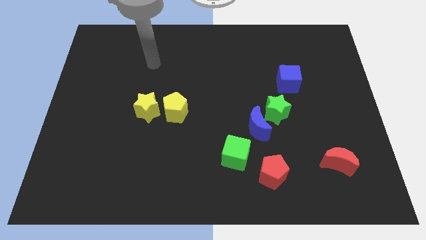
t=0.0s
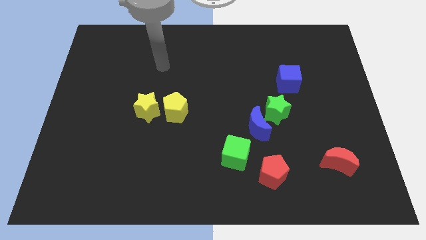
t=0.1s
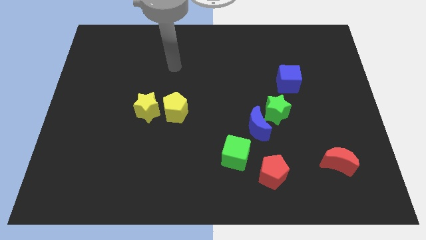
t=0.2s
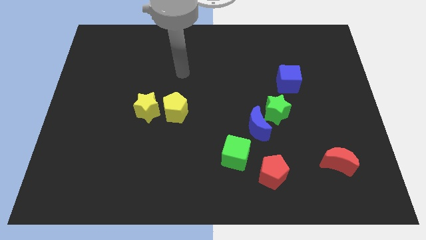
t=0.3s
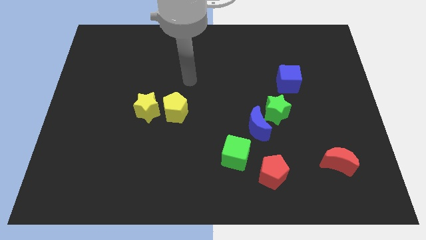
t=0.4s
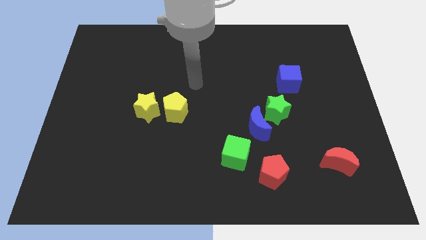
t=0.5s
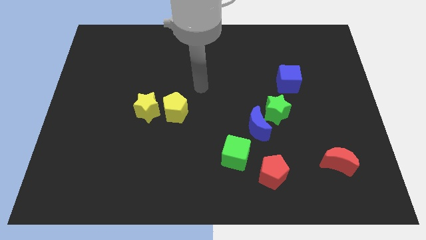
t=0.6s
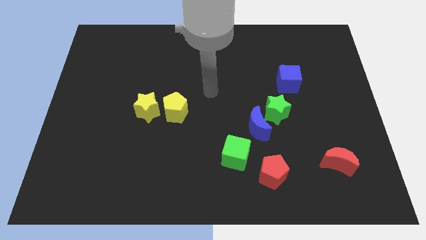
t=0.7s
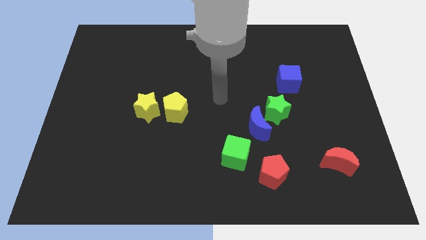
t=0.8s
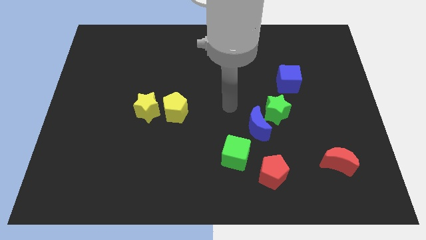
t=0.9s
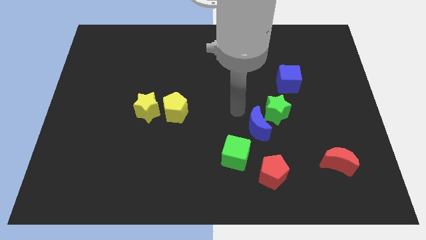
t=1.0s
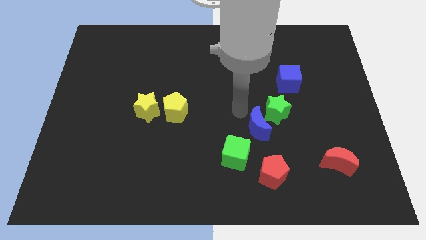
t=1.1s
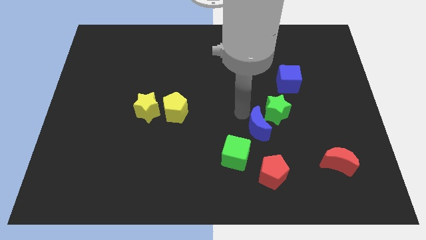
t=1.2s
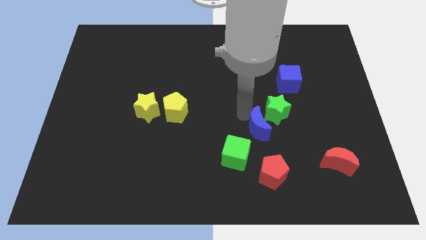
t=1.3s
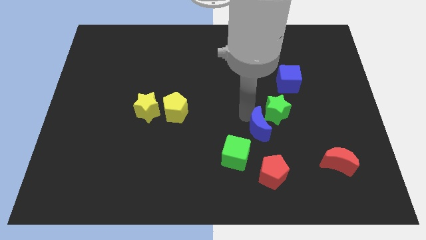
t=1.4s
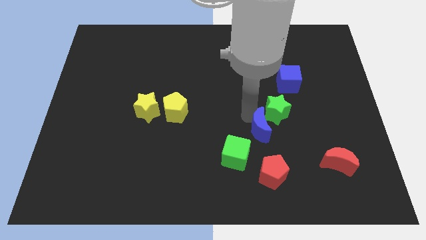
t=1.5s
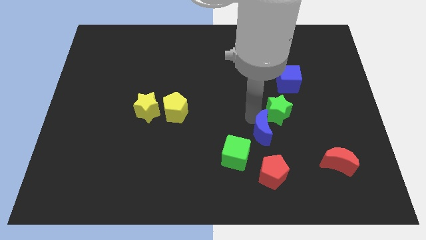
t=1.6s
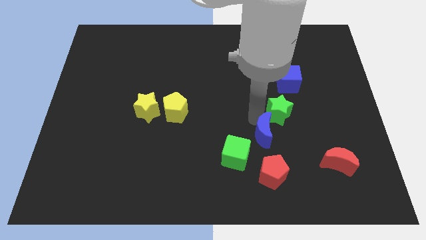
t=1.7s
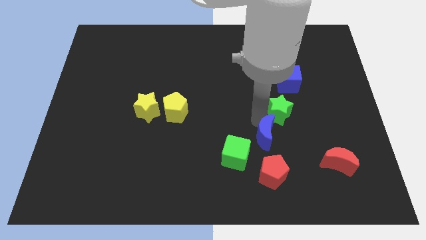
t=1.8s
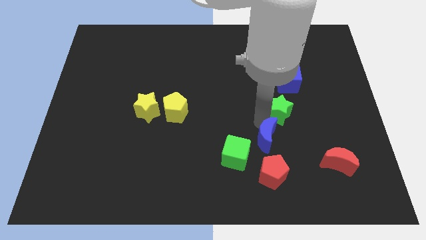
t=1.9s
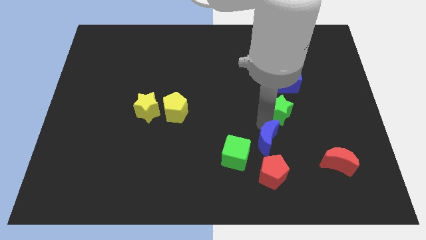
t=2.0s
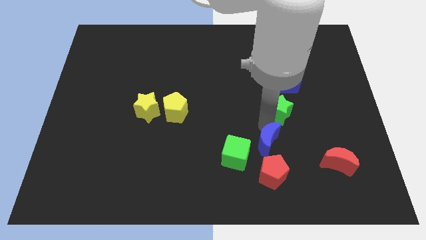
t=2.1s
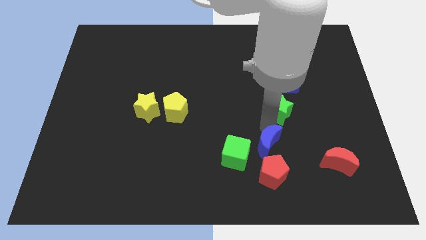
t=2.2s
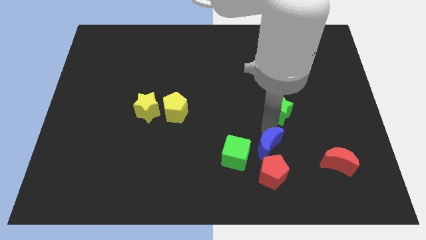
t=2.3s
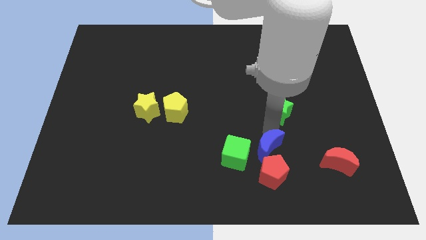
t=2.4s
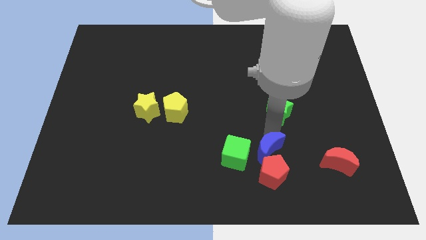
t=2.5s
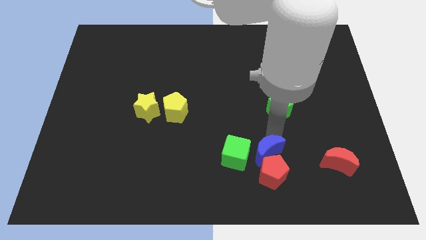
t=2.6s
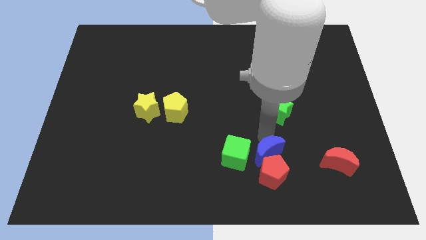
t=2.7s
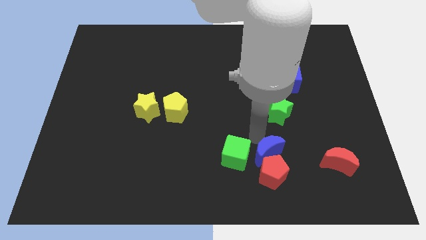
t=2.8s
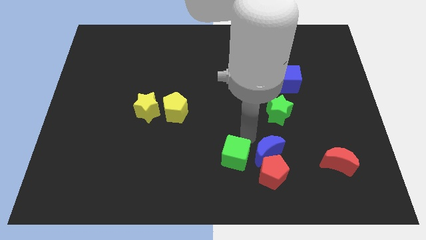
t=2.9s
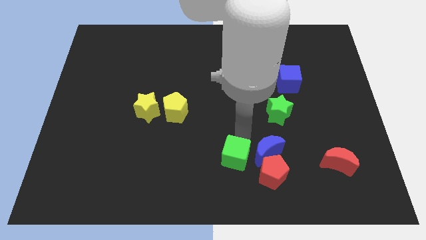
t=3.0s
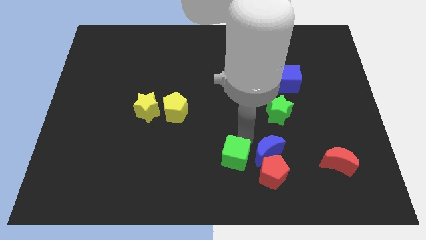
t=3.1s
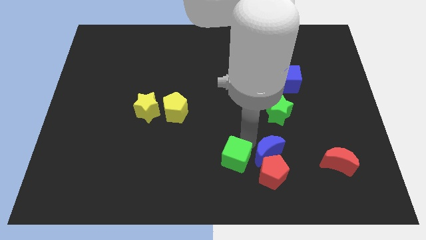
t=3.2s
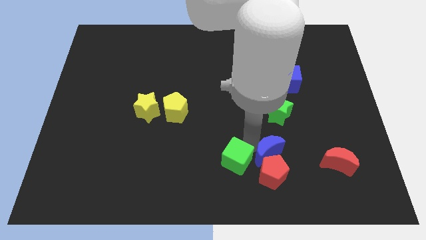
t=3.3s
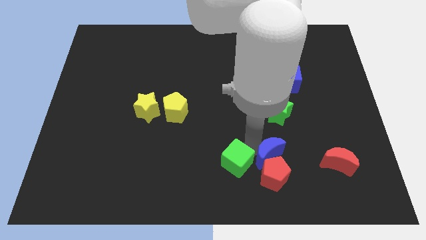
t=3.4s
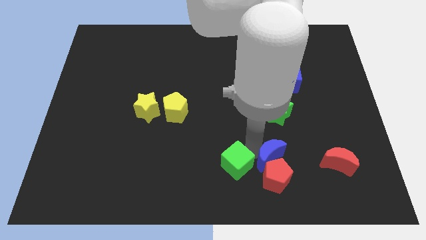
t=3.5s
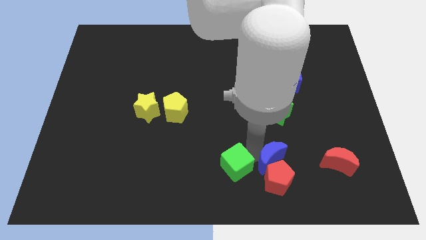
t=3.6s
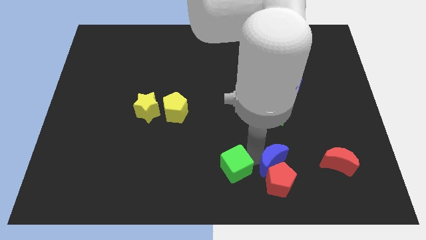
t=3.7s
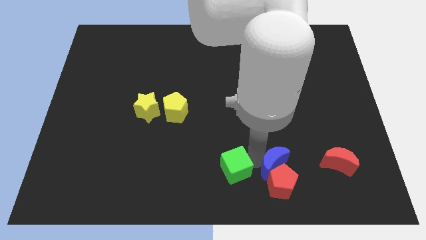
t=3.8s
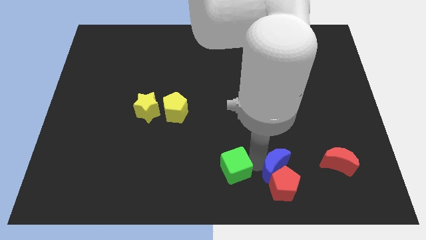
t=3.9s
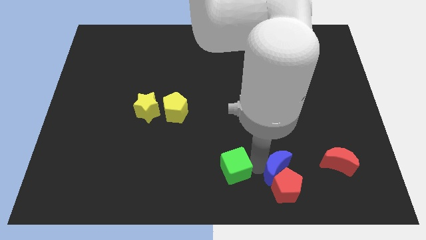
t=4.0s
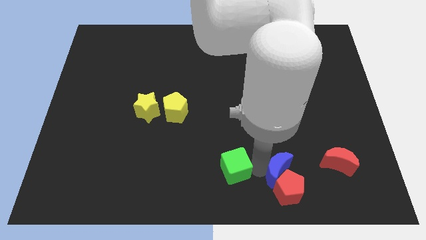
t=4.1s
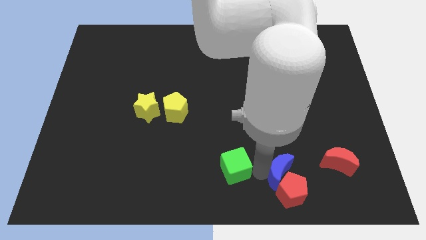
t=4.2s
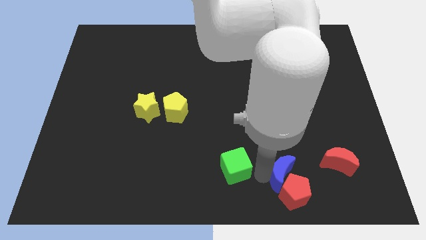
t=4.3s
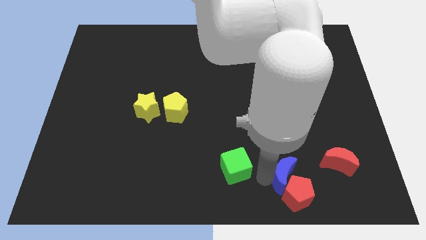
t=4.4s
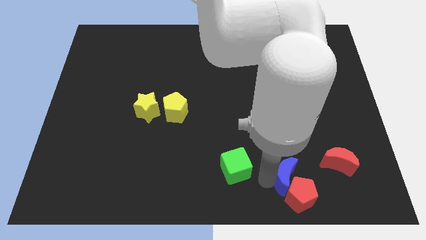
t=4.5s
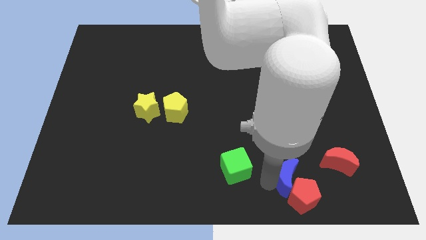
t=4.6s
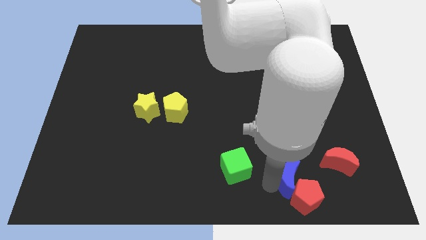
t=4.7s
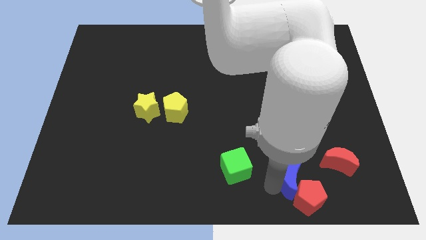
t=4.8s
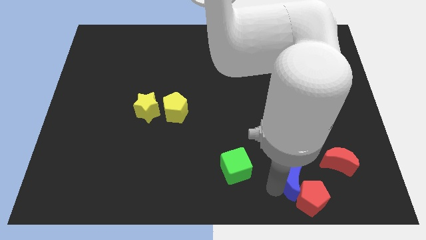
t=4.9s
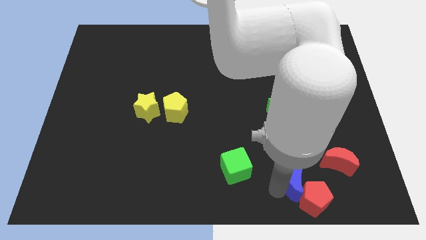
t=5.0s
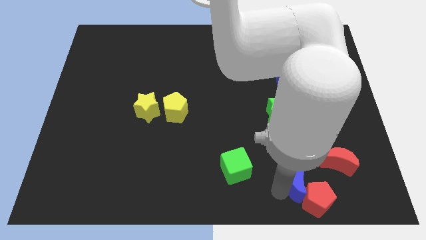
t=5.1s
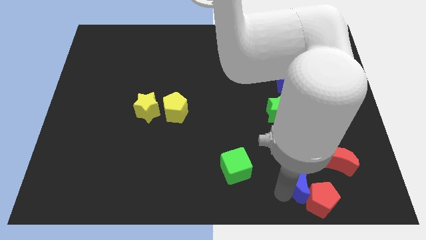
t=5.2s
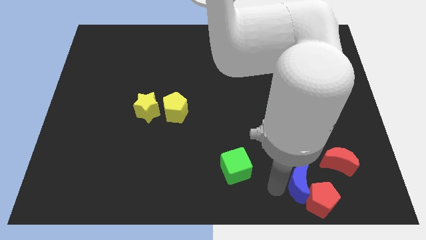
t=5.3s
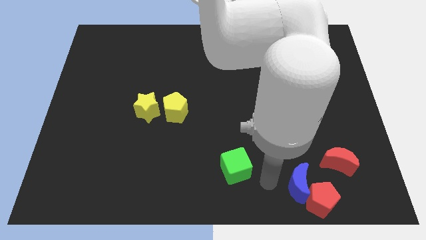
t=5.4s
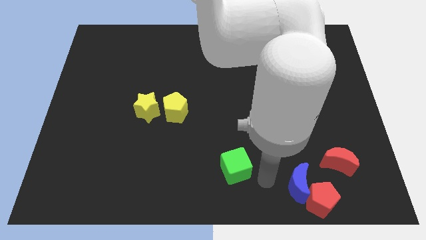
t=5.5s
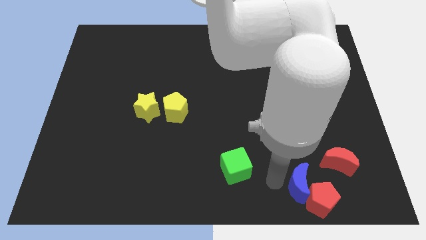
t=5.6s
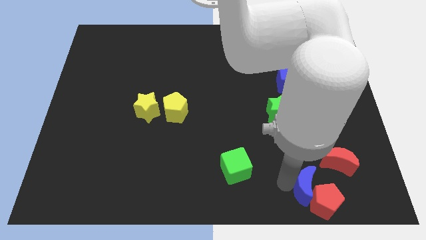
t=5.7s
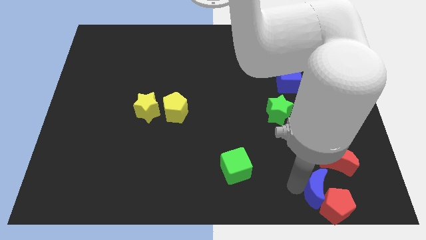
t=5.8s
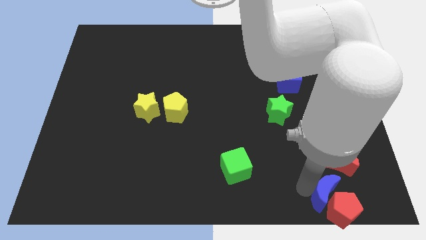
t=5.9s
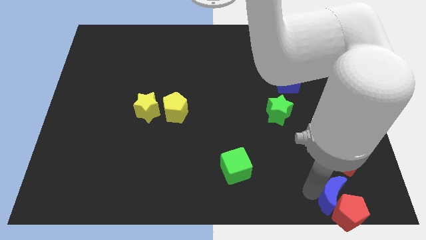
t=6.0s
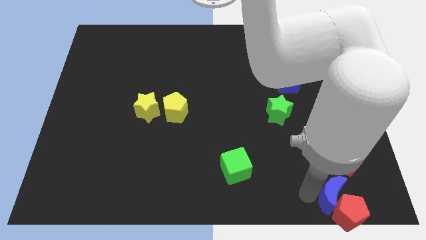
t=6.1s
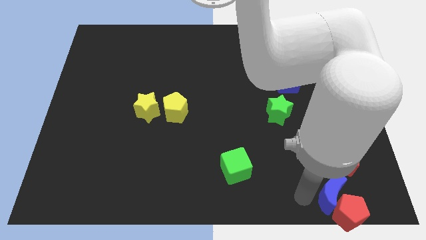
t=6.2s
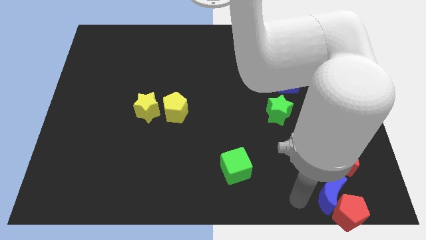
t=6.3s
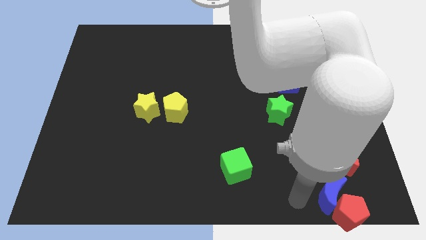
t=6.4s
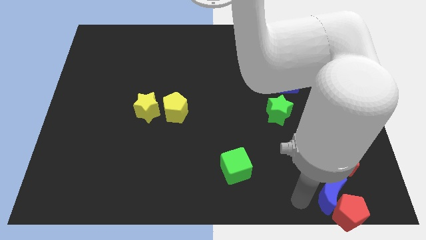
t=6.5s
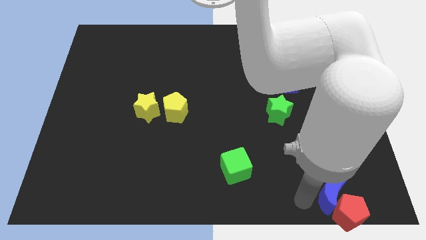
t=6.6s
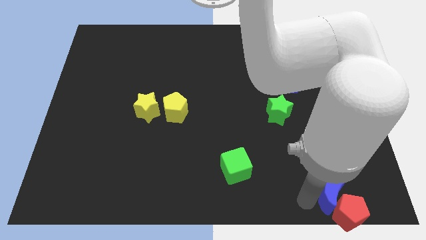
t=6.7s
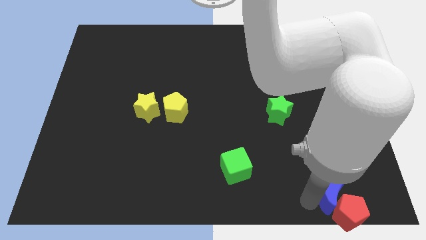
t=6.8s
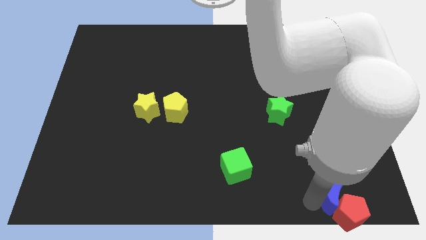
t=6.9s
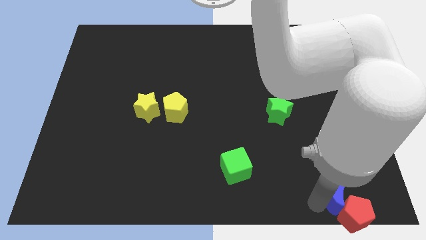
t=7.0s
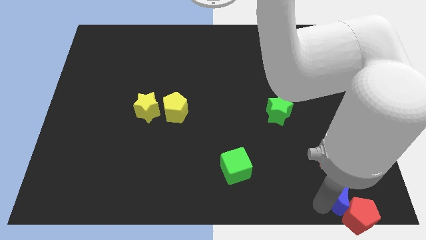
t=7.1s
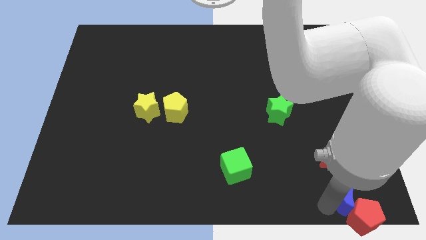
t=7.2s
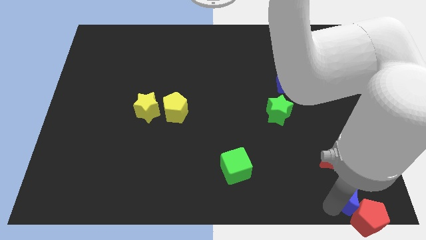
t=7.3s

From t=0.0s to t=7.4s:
put the blue moon to the lower right corner
